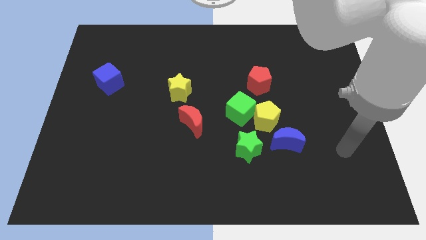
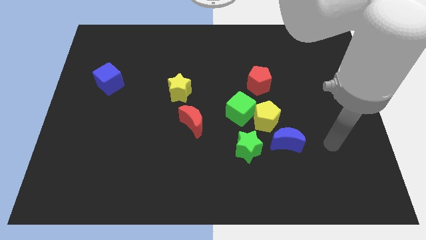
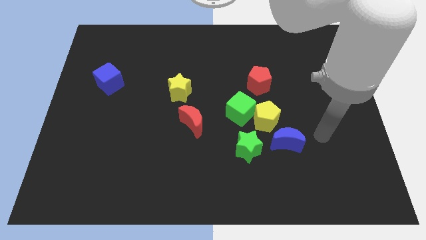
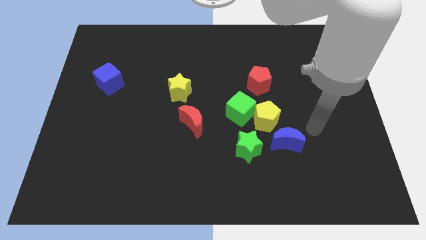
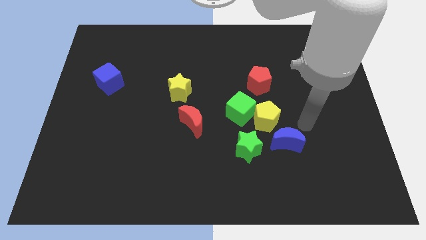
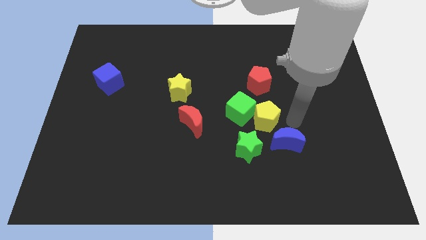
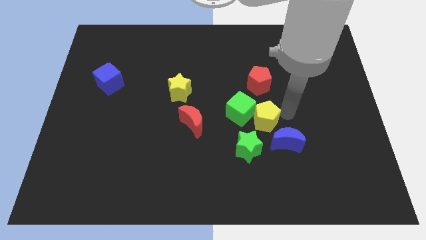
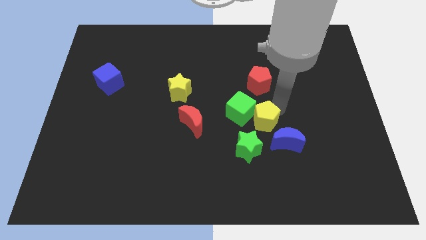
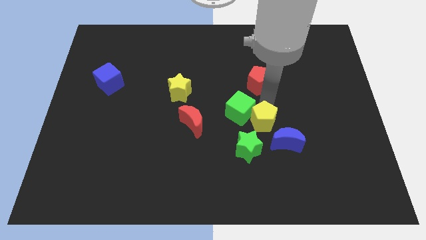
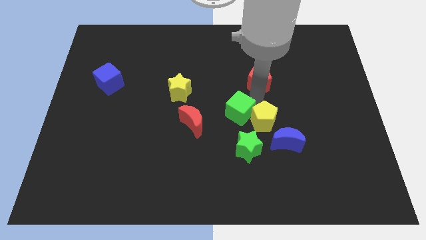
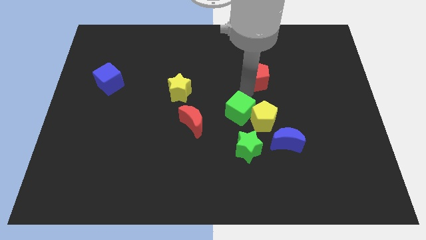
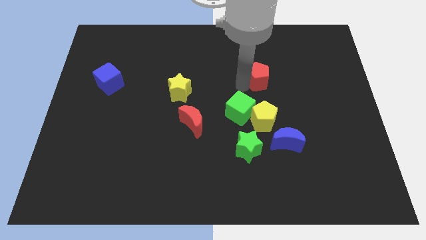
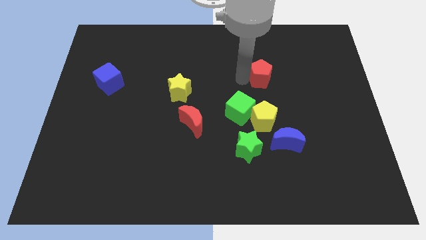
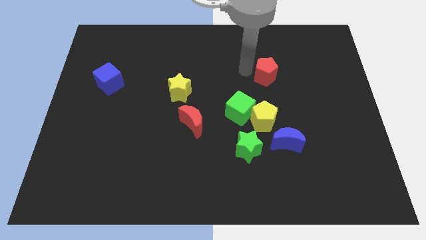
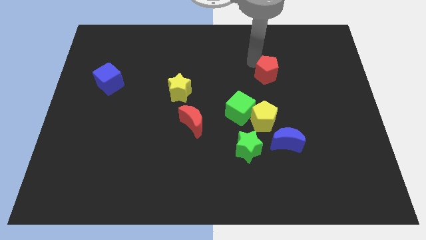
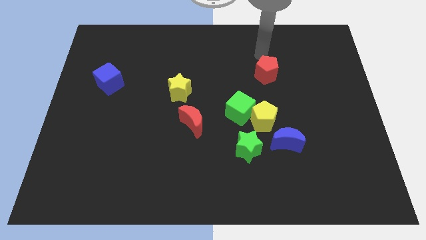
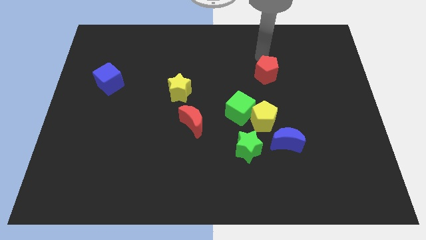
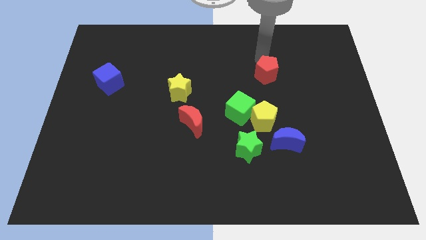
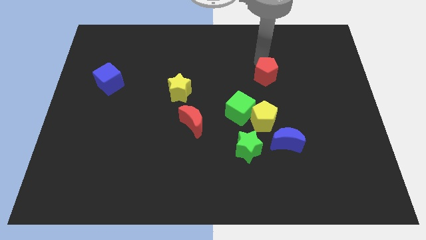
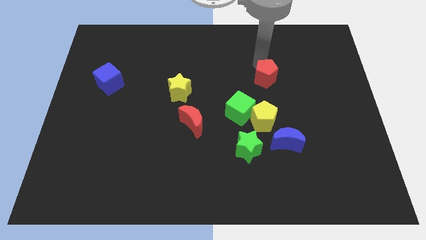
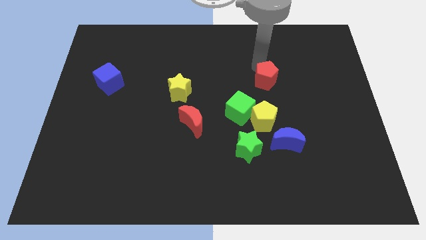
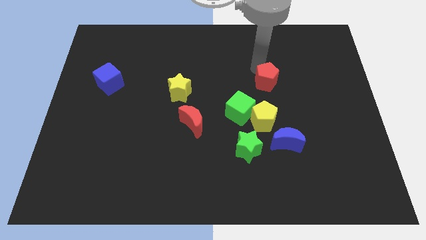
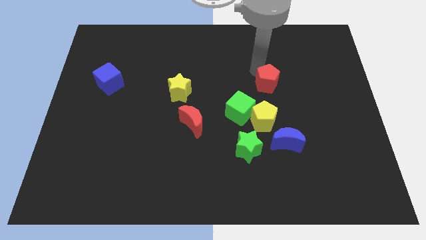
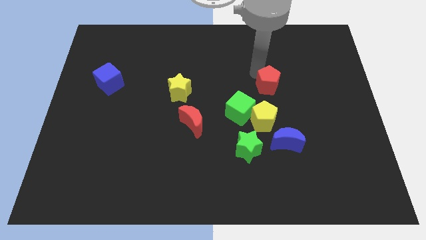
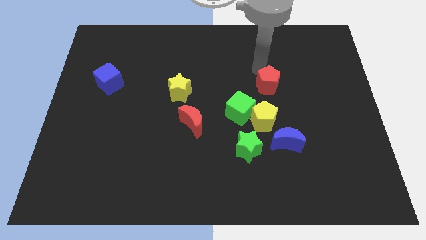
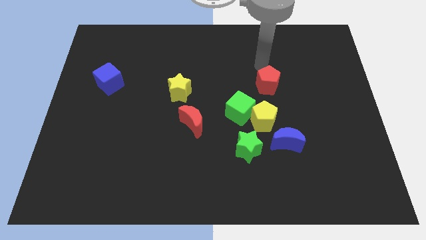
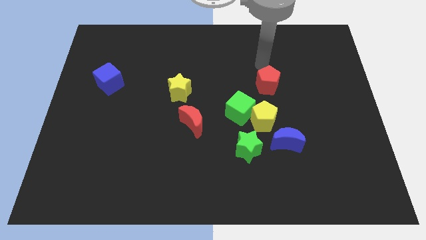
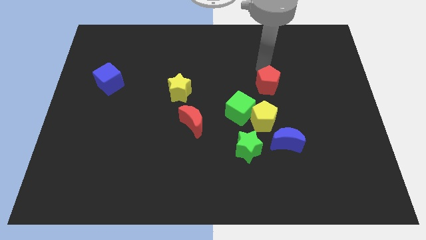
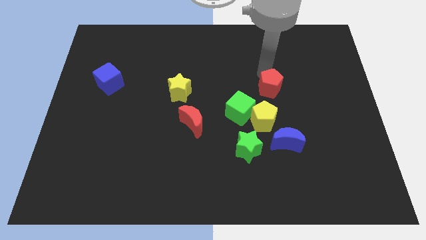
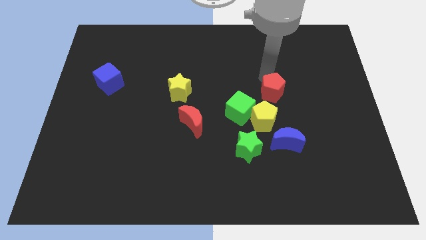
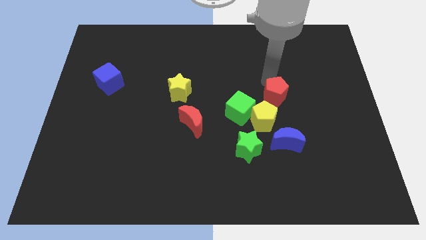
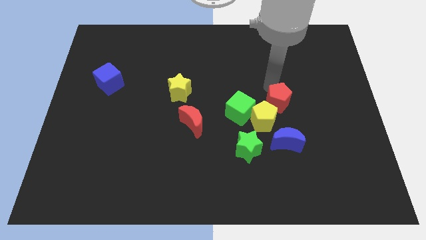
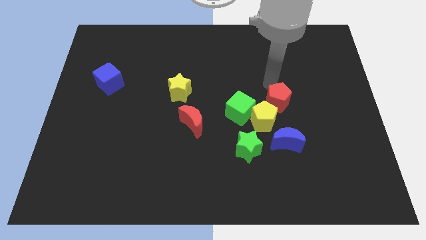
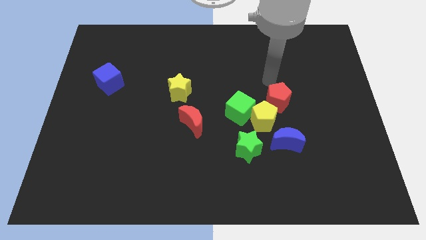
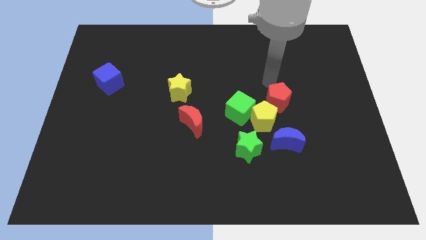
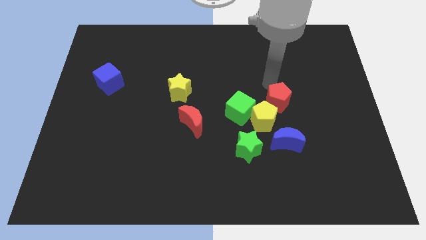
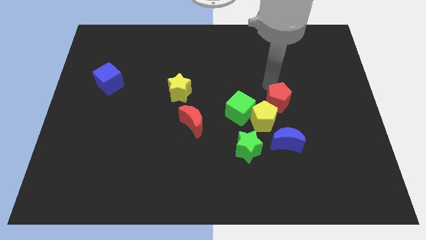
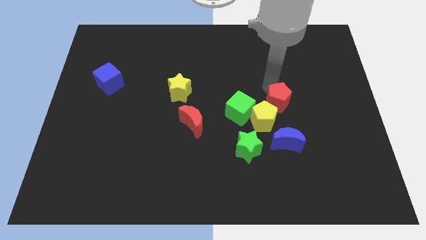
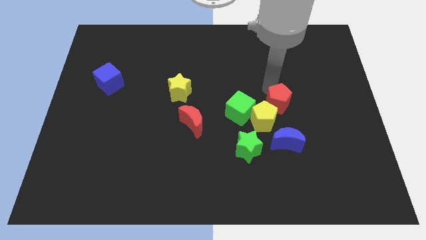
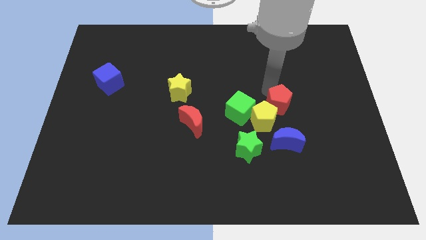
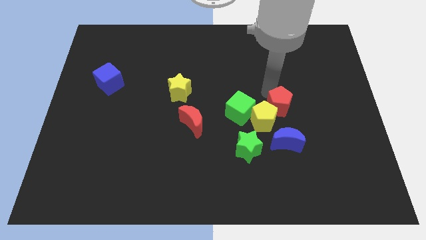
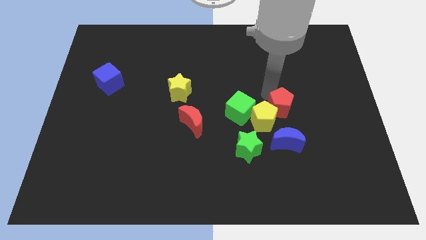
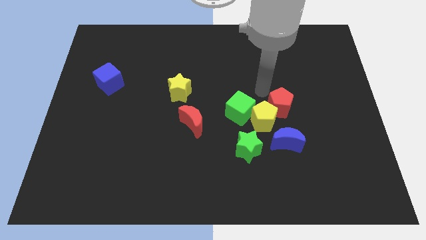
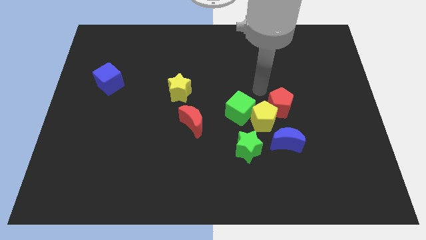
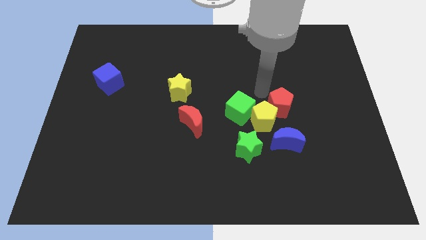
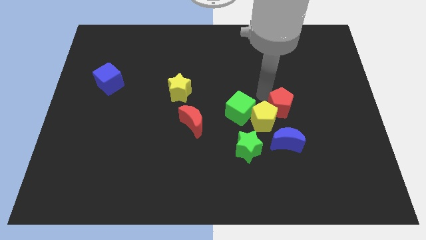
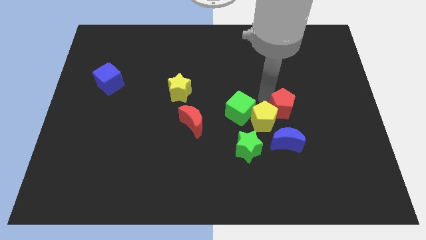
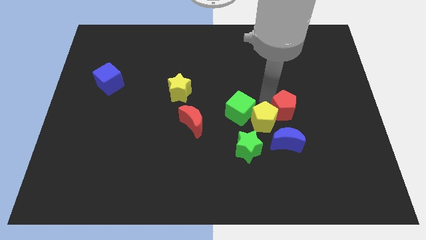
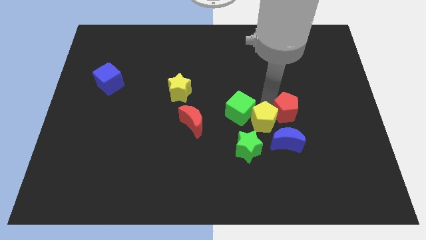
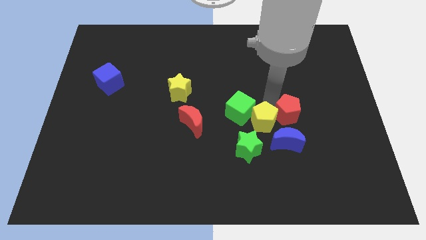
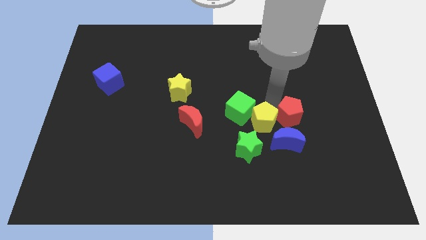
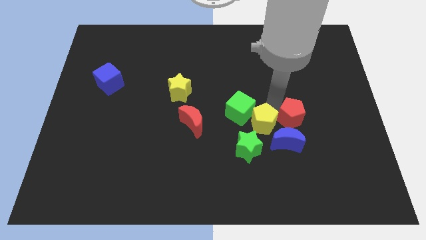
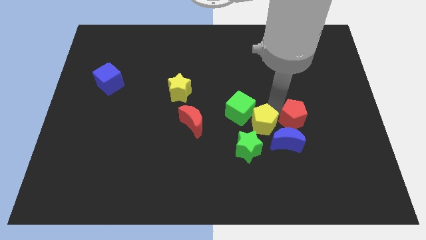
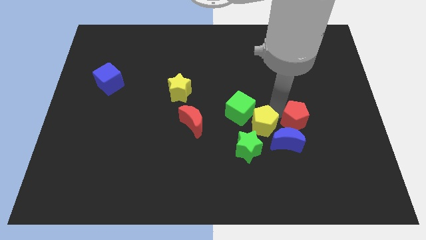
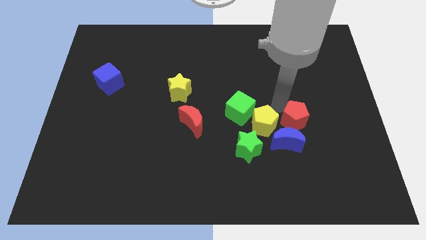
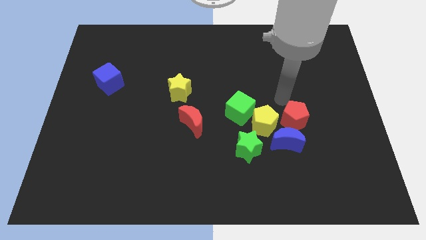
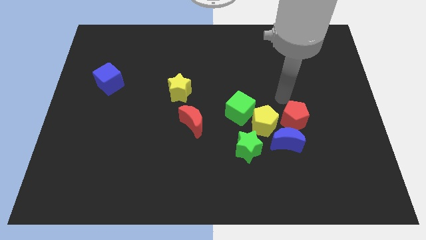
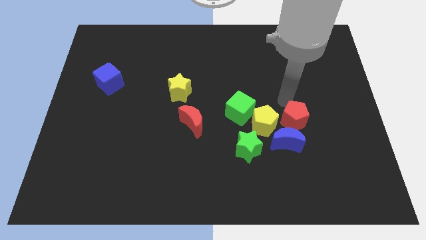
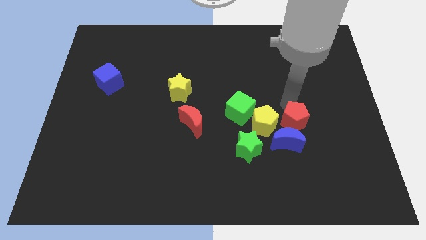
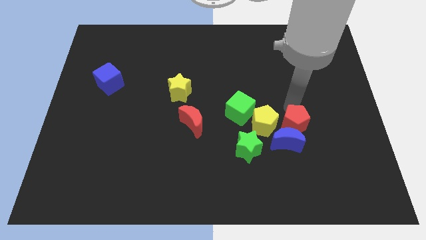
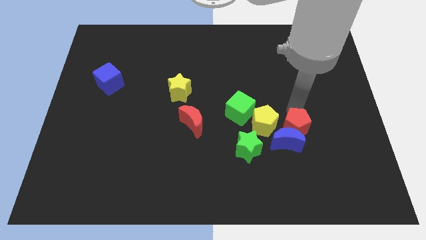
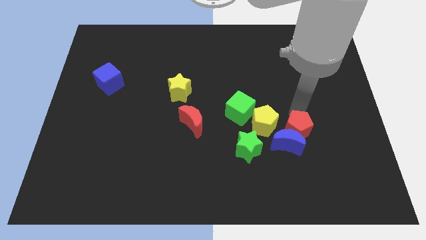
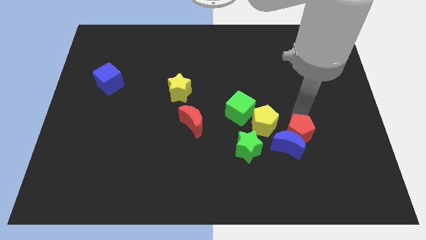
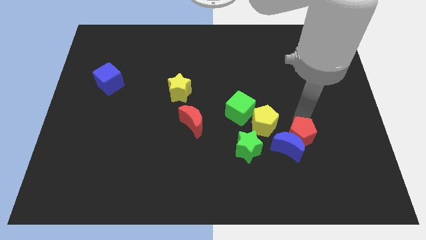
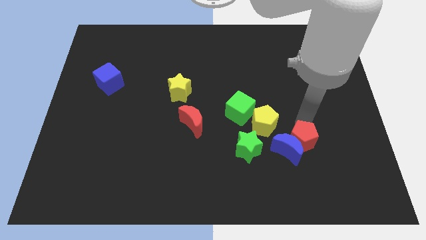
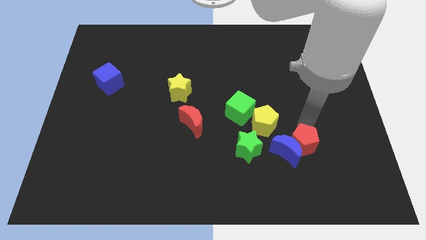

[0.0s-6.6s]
push the red pentagon diagonally down and to the right of the blue moon

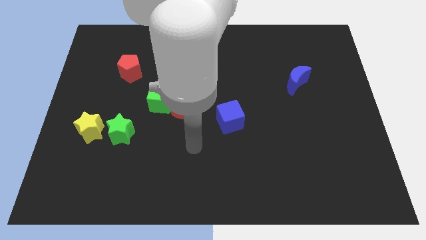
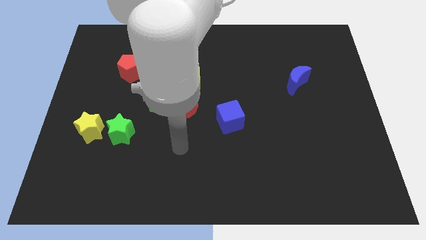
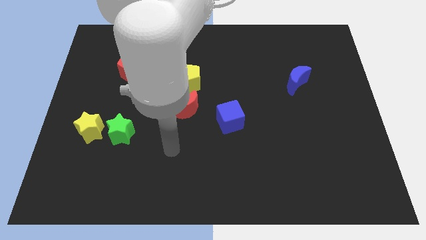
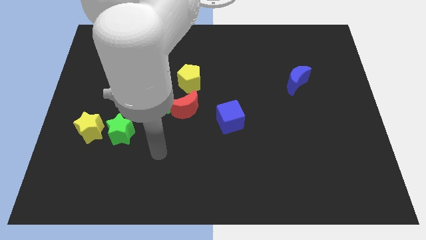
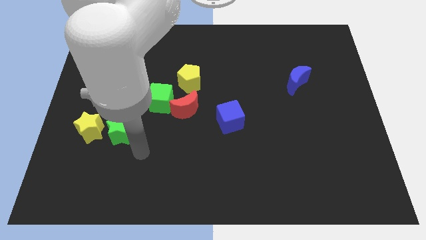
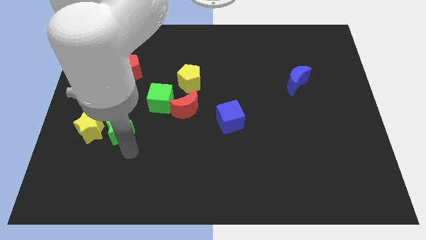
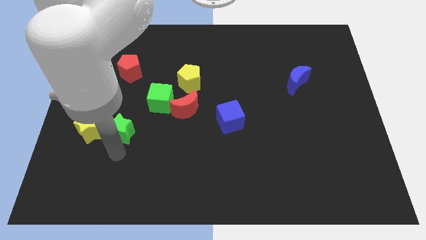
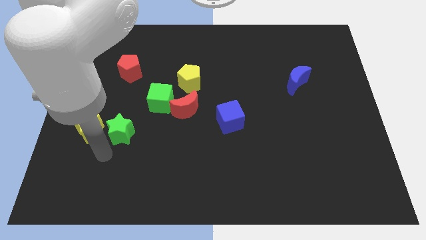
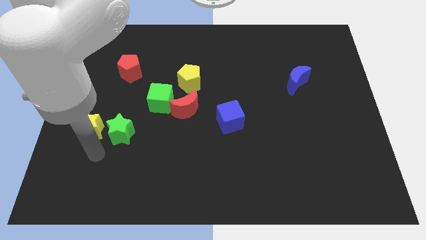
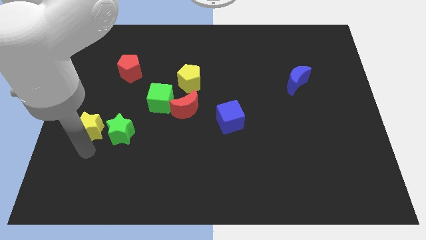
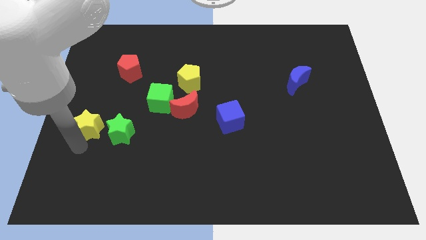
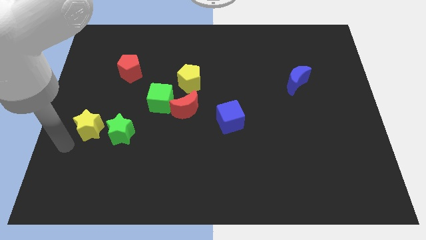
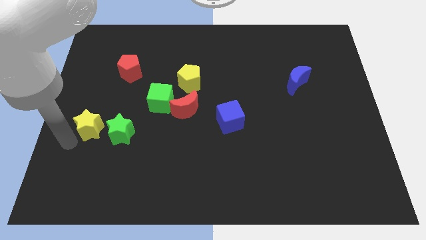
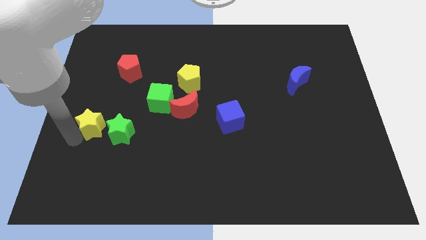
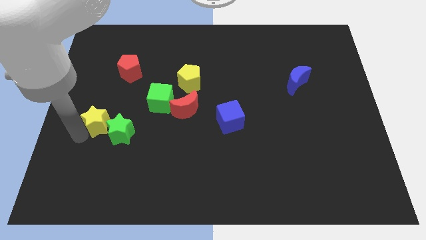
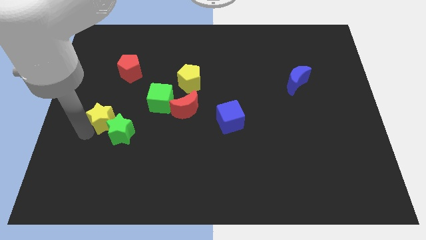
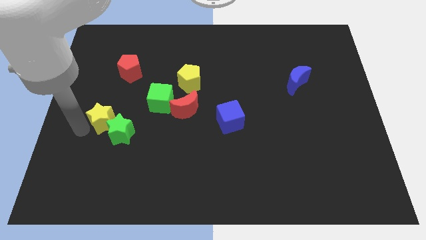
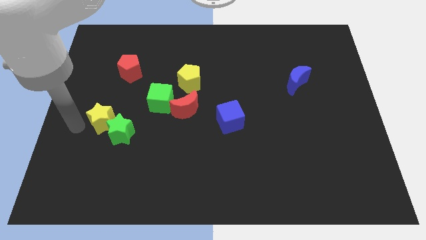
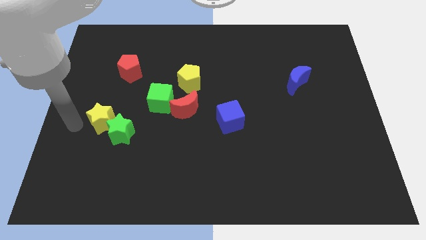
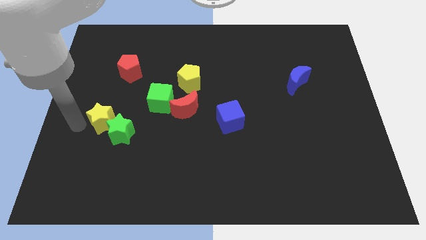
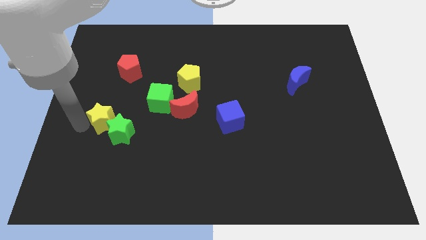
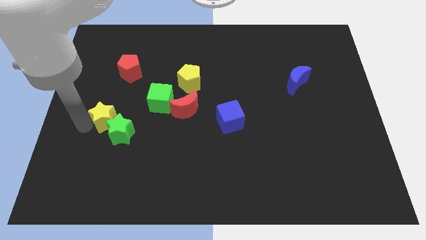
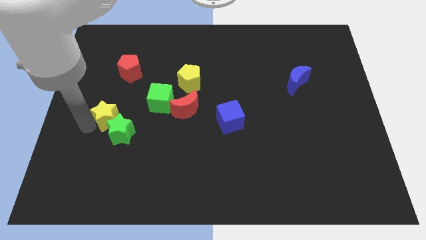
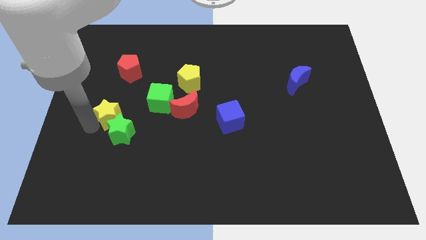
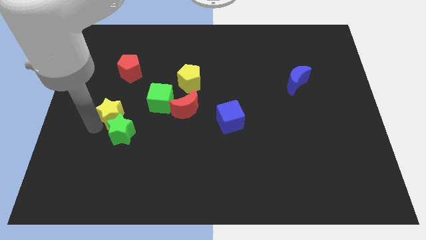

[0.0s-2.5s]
slide the yellow star to the bottom left side of the green cube
